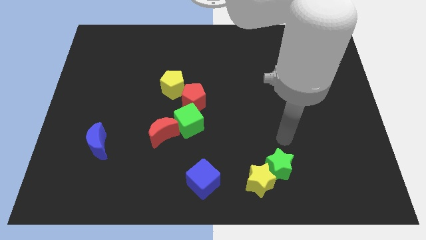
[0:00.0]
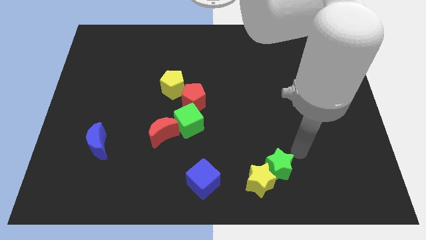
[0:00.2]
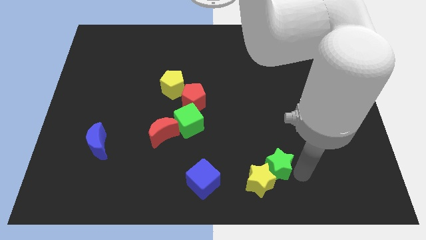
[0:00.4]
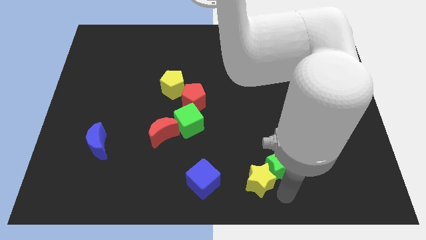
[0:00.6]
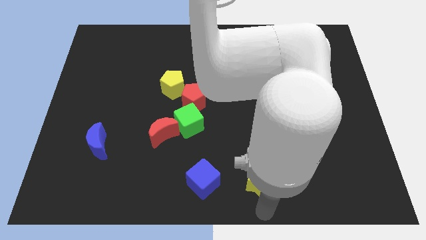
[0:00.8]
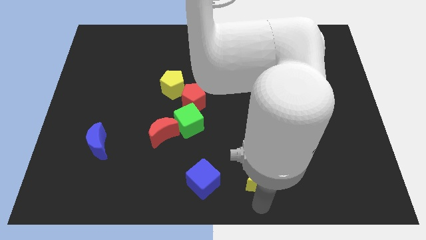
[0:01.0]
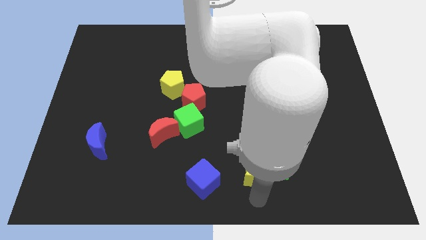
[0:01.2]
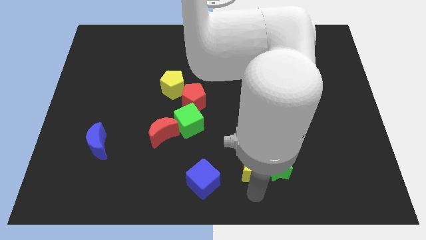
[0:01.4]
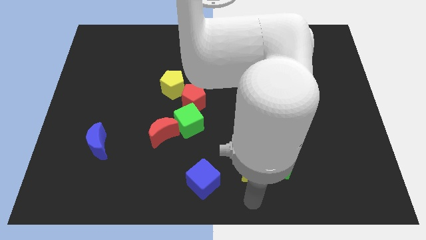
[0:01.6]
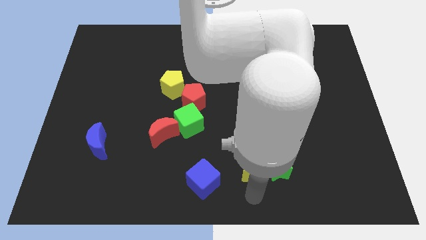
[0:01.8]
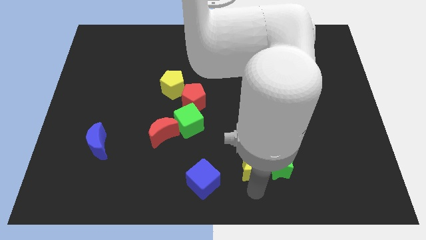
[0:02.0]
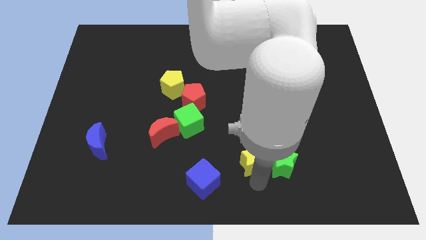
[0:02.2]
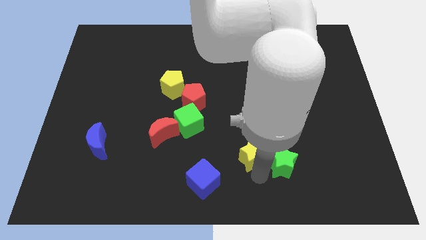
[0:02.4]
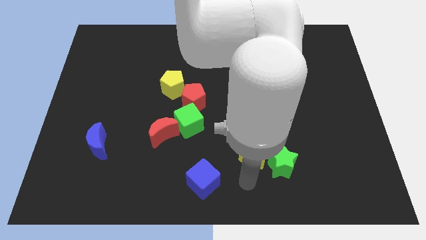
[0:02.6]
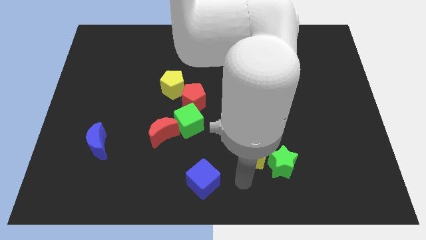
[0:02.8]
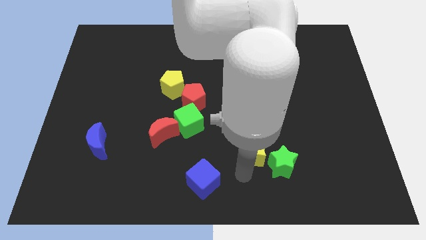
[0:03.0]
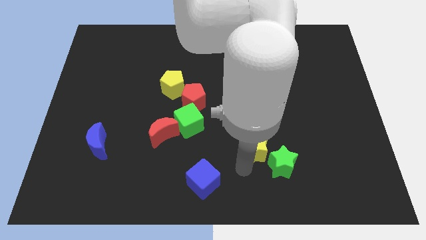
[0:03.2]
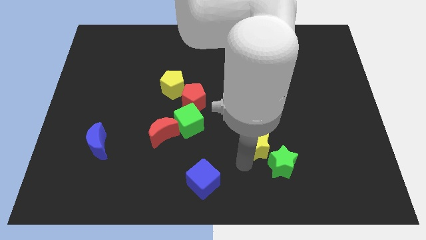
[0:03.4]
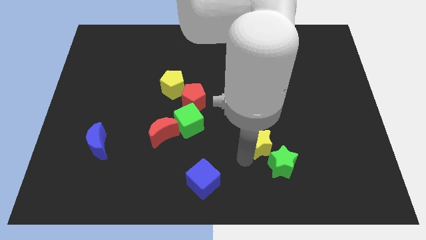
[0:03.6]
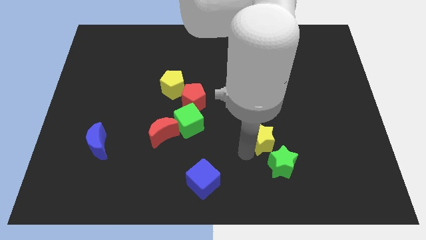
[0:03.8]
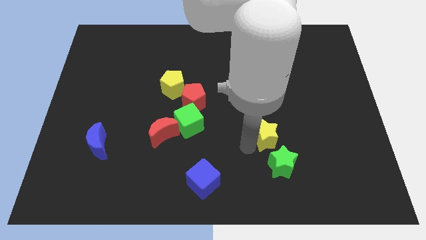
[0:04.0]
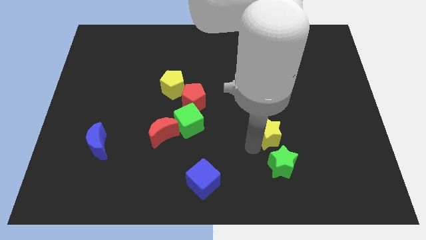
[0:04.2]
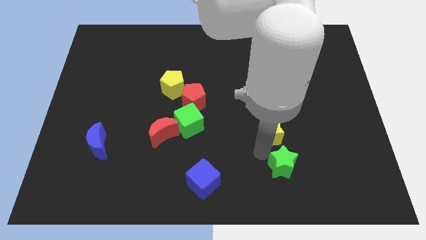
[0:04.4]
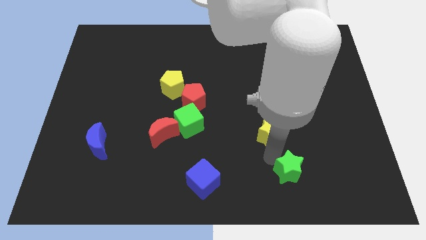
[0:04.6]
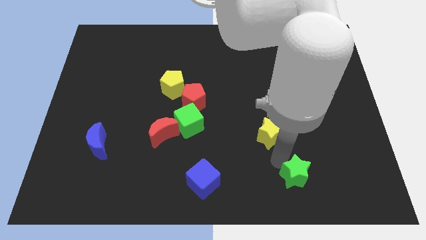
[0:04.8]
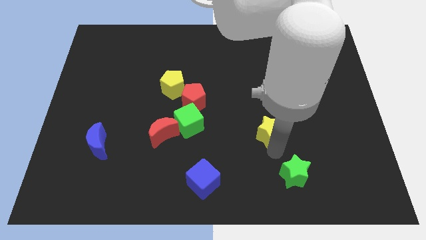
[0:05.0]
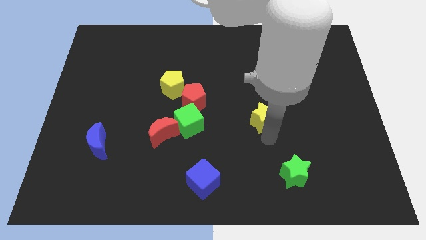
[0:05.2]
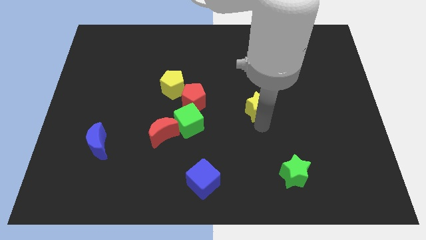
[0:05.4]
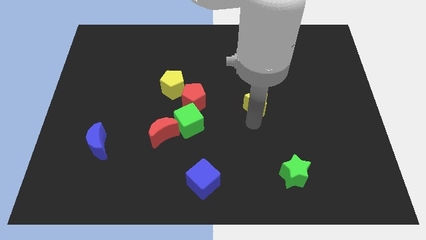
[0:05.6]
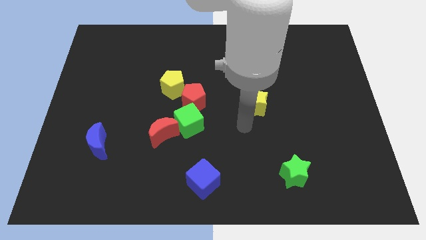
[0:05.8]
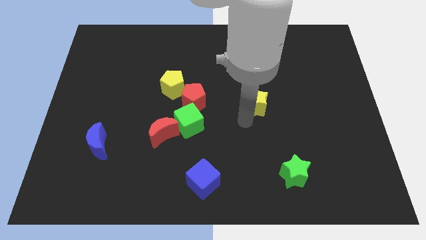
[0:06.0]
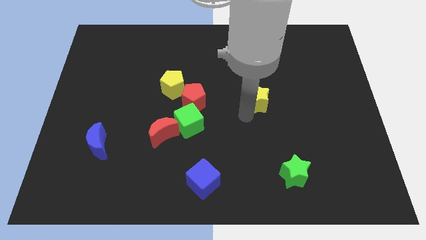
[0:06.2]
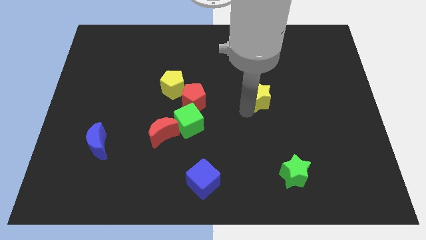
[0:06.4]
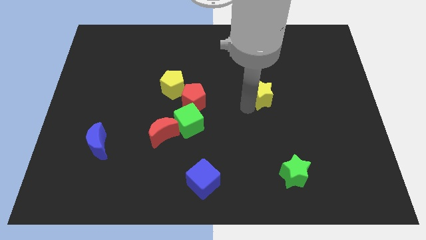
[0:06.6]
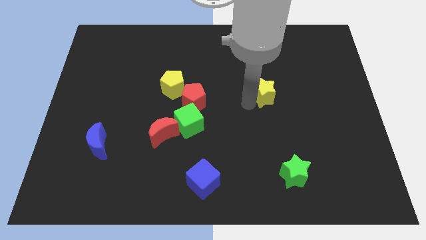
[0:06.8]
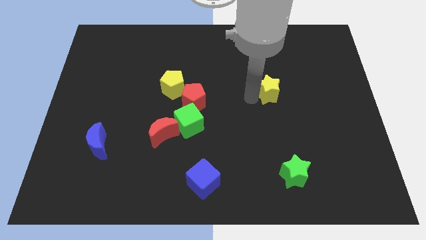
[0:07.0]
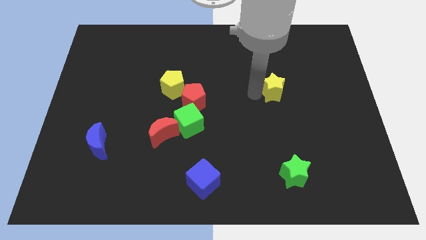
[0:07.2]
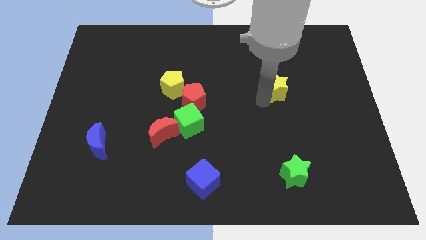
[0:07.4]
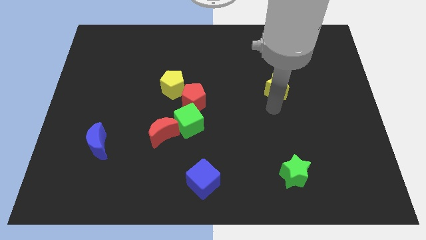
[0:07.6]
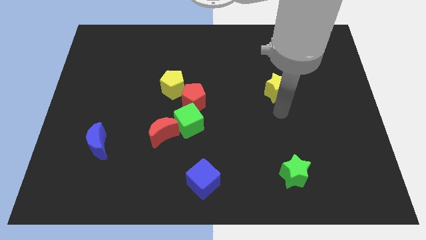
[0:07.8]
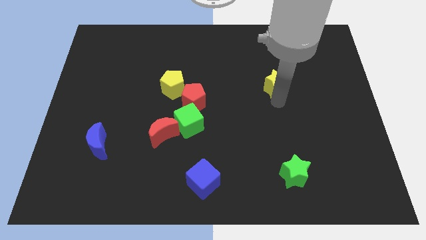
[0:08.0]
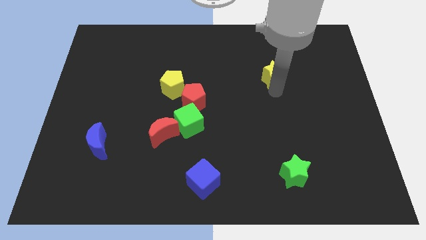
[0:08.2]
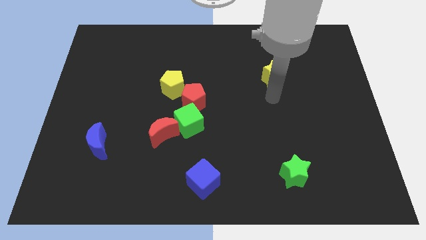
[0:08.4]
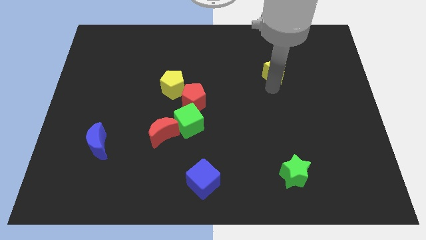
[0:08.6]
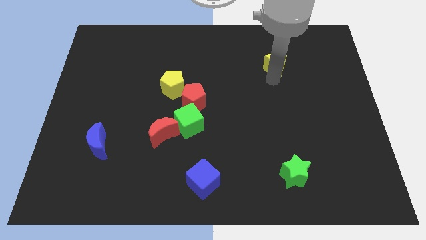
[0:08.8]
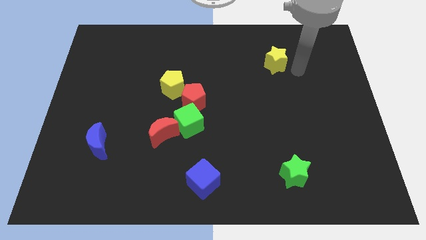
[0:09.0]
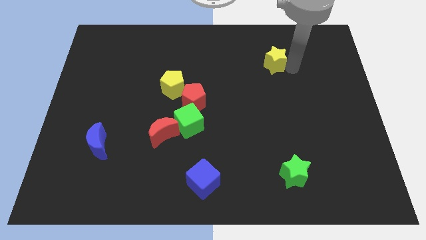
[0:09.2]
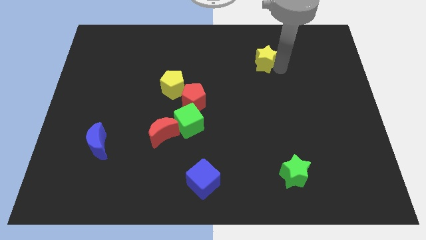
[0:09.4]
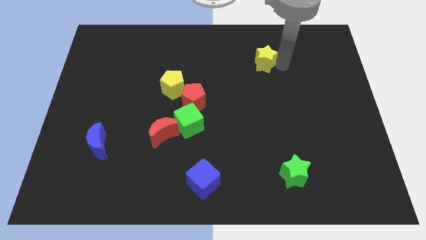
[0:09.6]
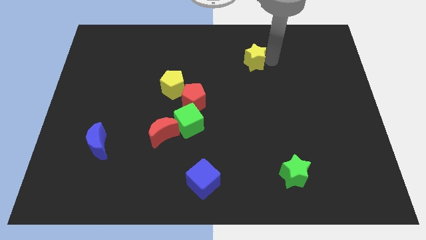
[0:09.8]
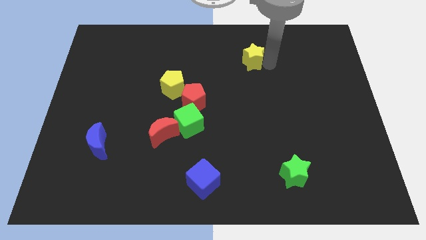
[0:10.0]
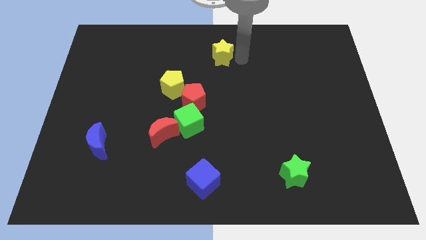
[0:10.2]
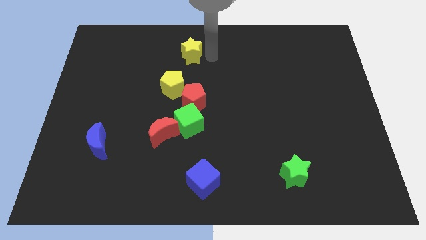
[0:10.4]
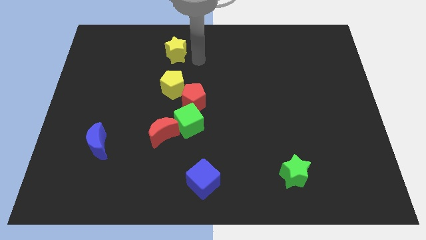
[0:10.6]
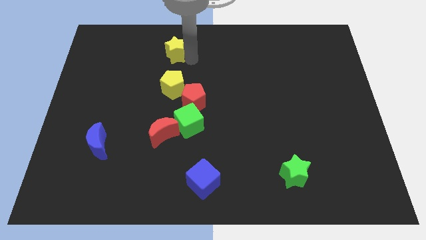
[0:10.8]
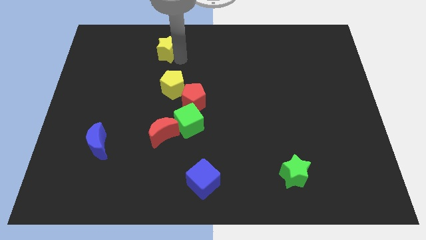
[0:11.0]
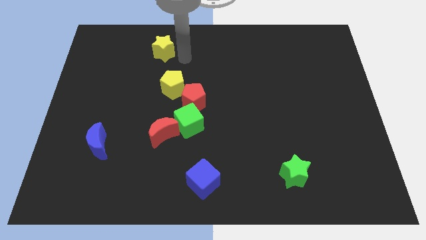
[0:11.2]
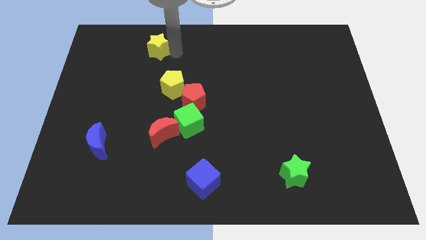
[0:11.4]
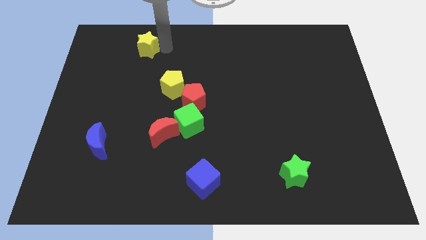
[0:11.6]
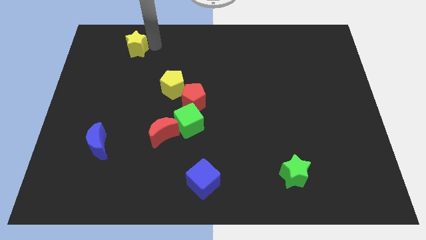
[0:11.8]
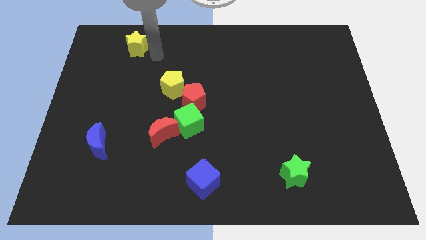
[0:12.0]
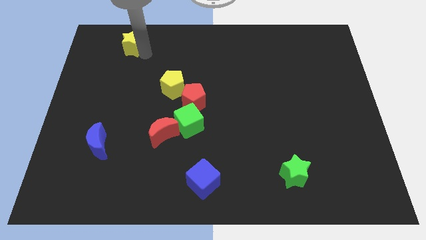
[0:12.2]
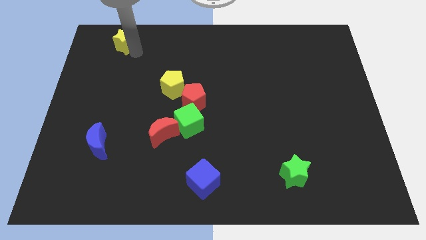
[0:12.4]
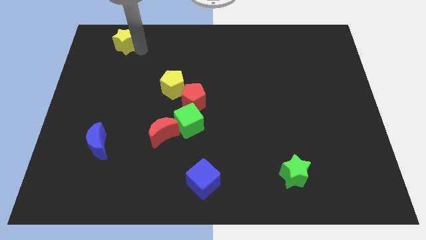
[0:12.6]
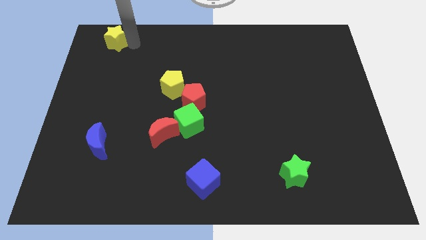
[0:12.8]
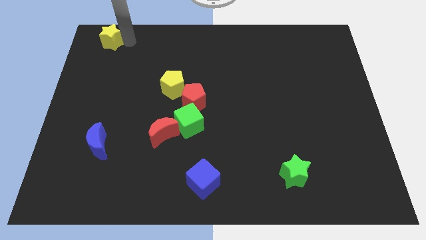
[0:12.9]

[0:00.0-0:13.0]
put the yellow star to the top left

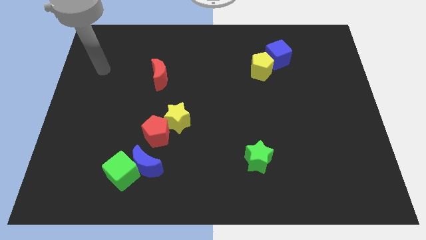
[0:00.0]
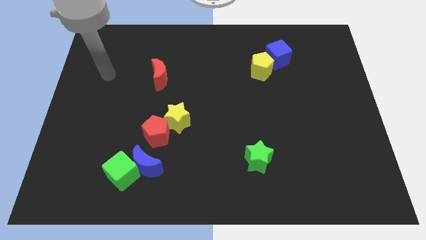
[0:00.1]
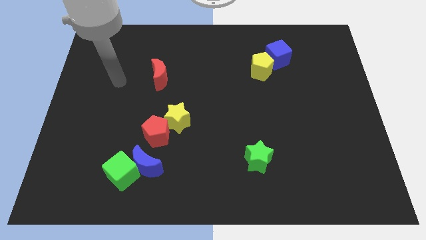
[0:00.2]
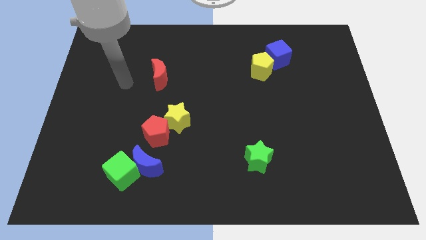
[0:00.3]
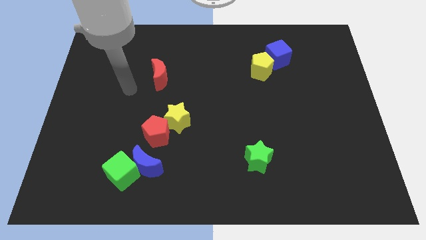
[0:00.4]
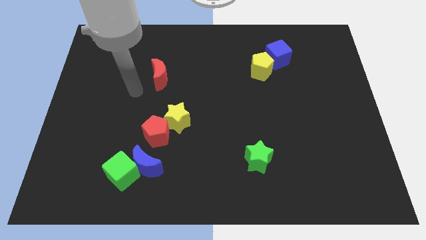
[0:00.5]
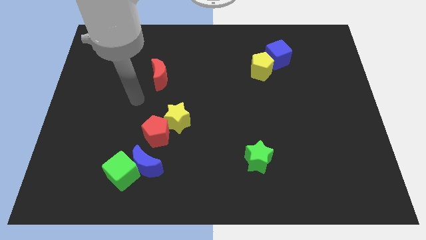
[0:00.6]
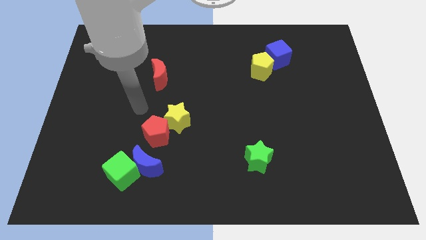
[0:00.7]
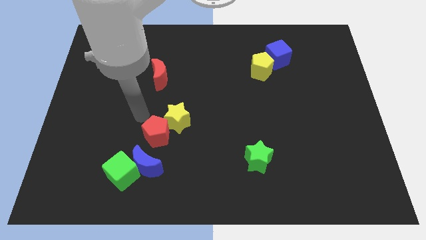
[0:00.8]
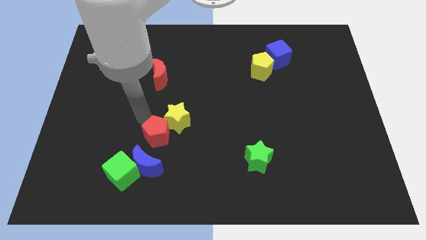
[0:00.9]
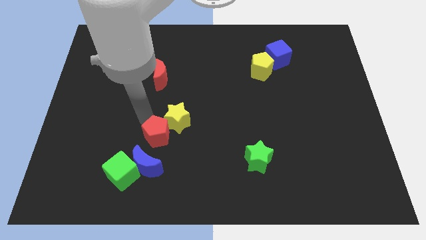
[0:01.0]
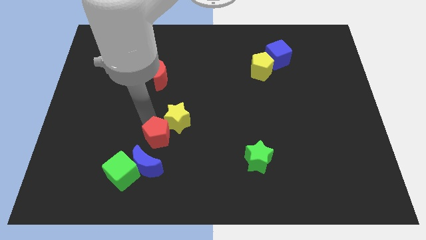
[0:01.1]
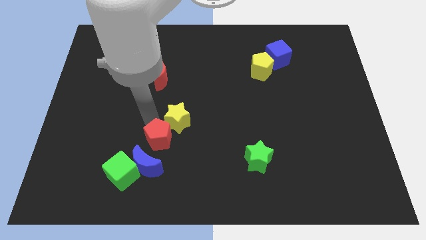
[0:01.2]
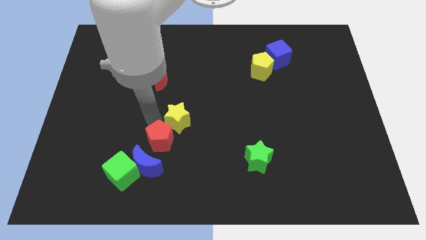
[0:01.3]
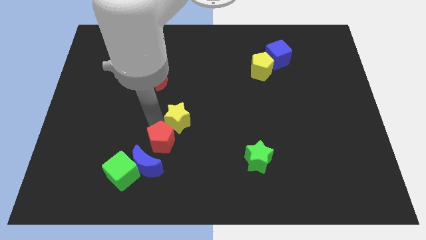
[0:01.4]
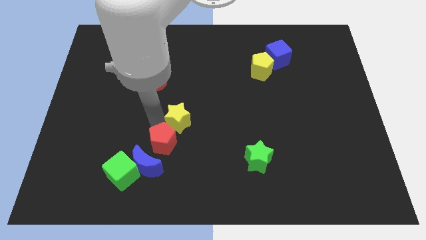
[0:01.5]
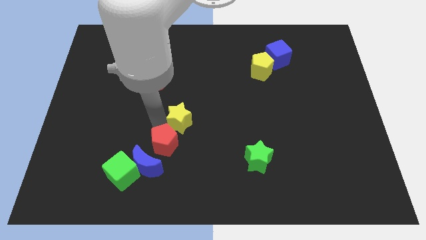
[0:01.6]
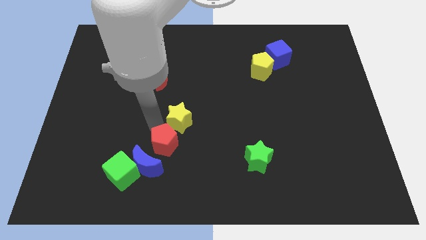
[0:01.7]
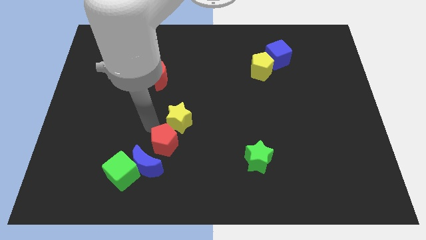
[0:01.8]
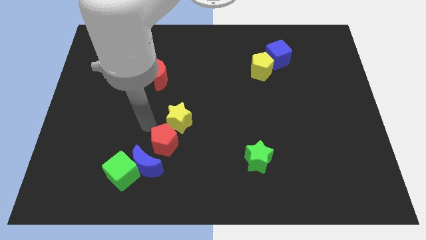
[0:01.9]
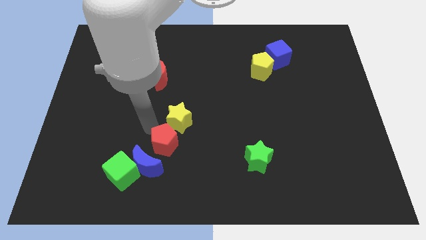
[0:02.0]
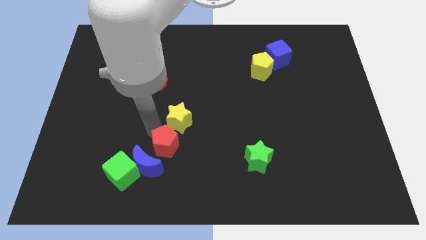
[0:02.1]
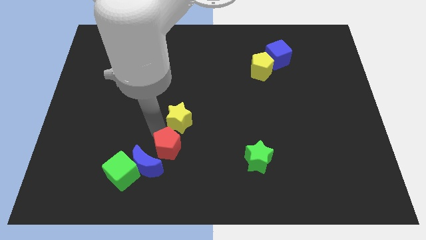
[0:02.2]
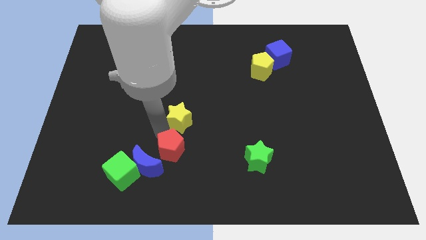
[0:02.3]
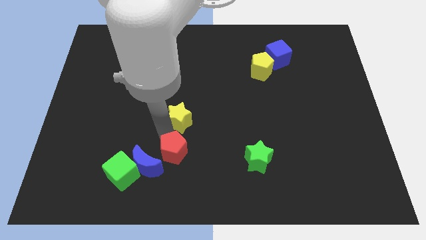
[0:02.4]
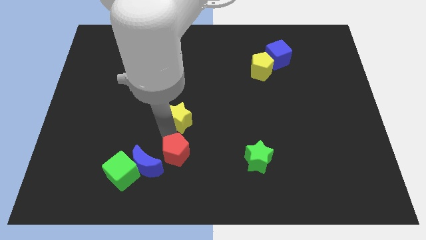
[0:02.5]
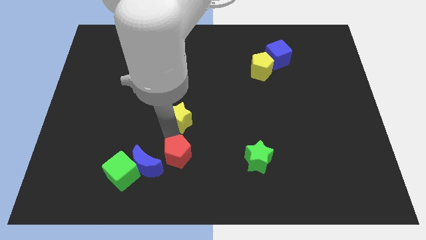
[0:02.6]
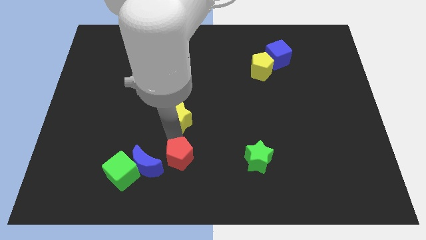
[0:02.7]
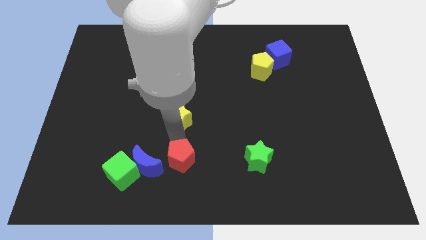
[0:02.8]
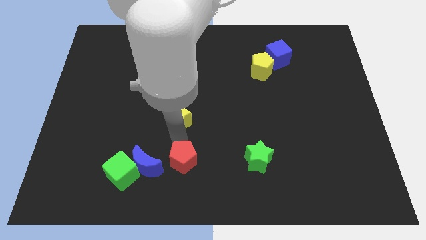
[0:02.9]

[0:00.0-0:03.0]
move the red pentagon to the bottom side
